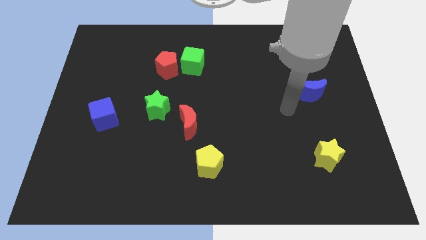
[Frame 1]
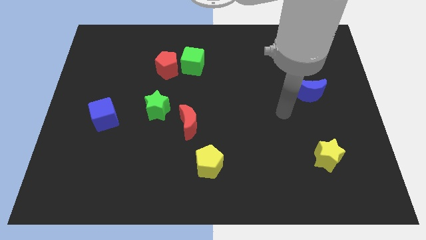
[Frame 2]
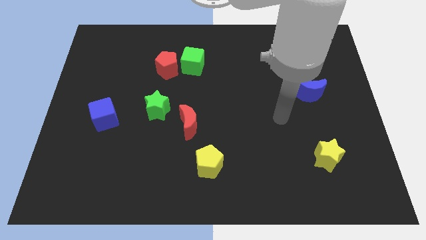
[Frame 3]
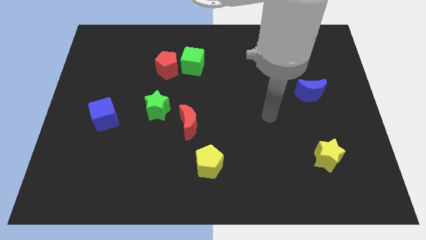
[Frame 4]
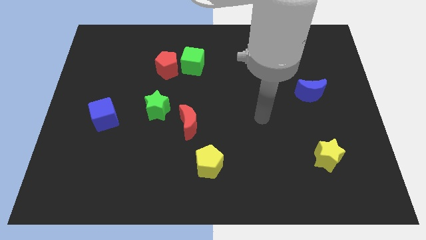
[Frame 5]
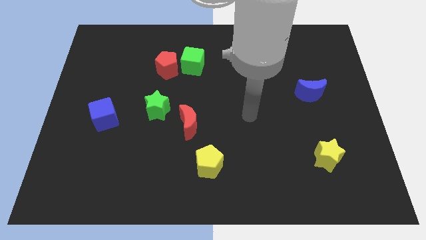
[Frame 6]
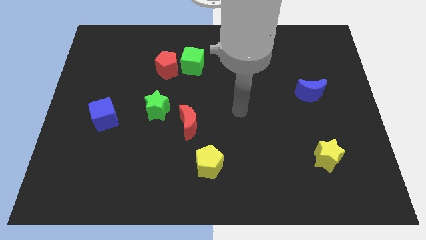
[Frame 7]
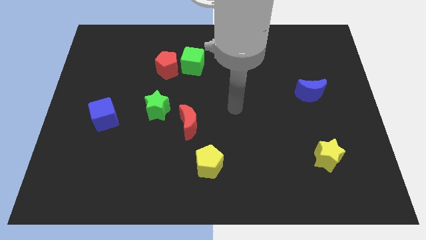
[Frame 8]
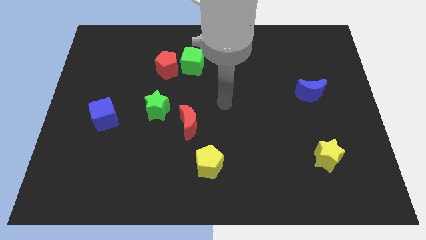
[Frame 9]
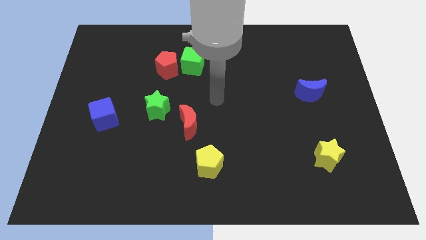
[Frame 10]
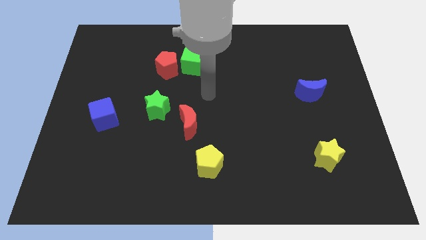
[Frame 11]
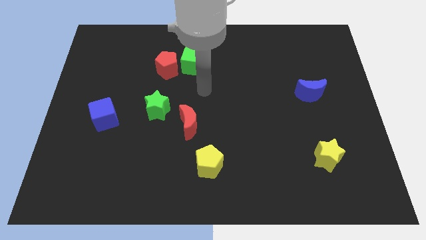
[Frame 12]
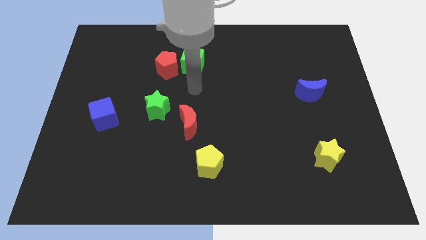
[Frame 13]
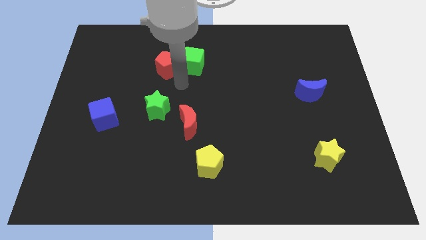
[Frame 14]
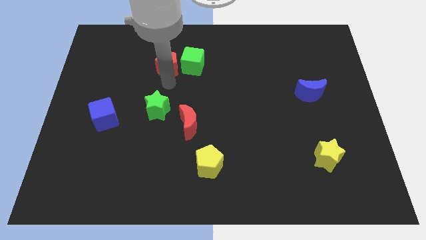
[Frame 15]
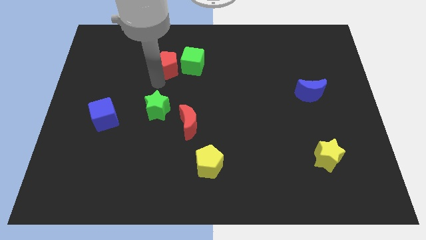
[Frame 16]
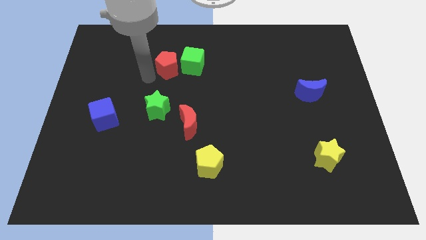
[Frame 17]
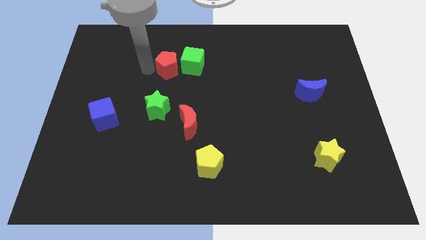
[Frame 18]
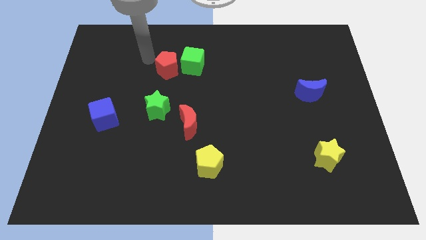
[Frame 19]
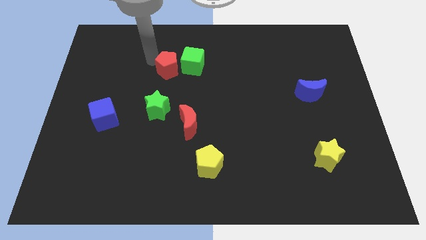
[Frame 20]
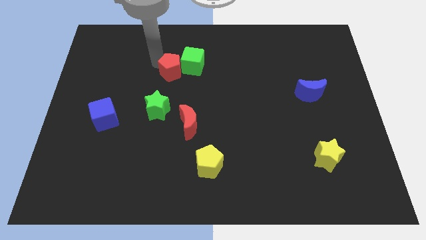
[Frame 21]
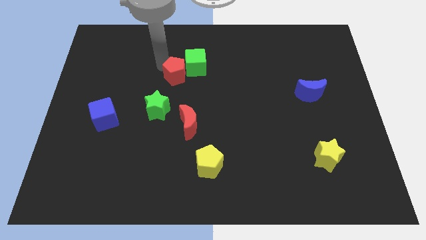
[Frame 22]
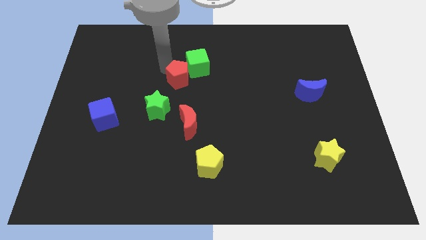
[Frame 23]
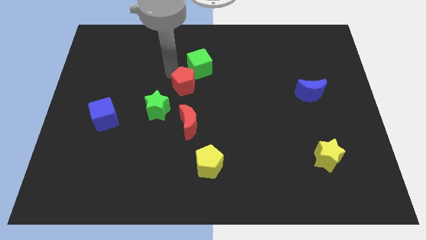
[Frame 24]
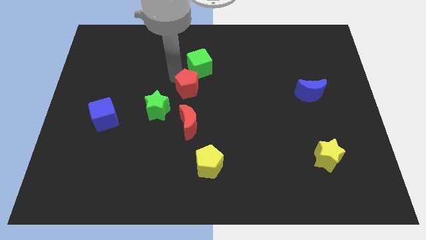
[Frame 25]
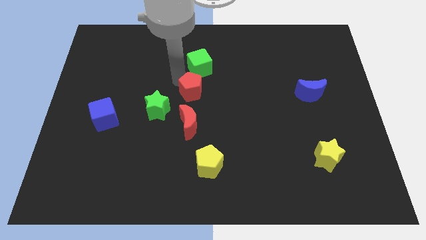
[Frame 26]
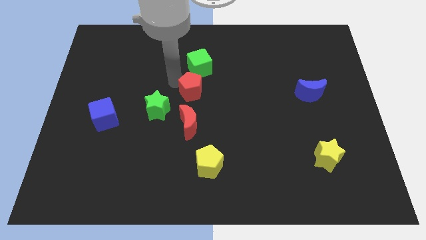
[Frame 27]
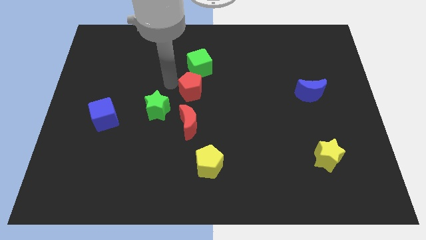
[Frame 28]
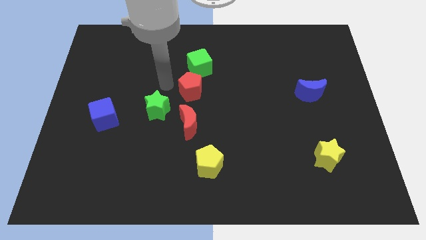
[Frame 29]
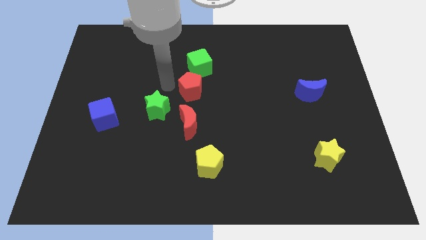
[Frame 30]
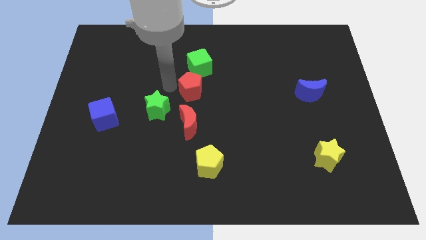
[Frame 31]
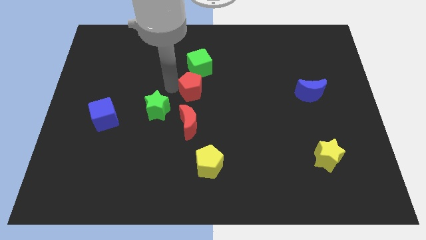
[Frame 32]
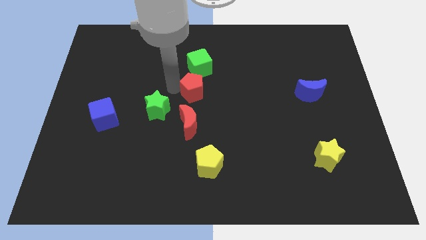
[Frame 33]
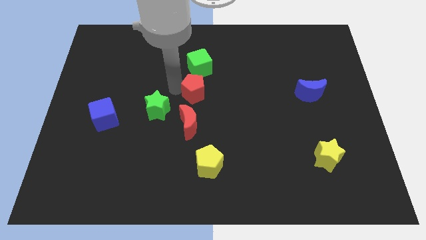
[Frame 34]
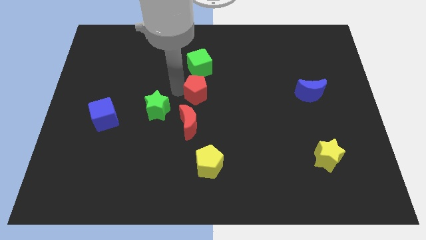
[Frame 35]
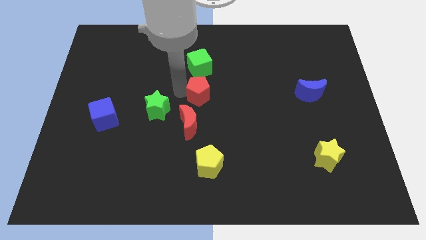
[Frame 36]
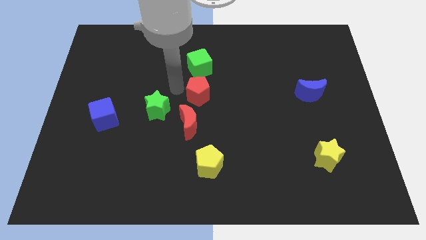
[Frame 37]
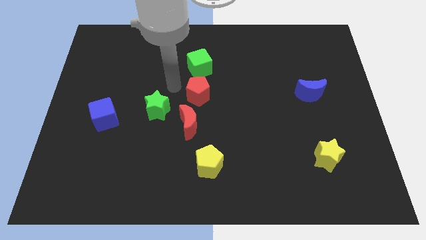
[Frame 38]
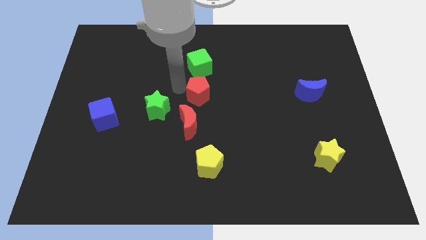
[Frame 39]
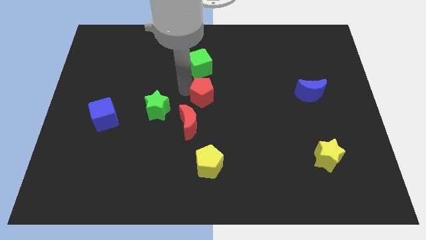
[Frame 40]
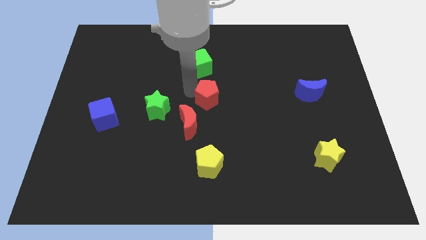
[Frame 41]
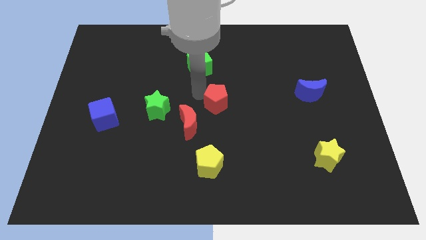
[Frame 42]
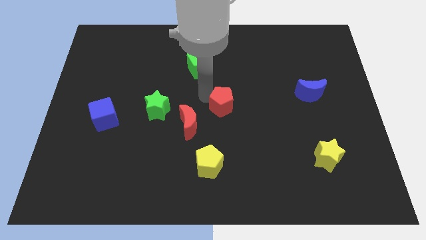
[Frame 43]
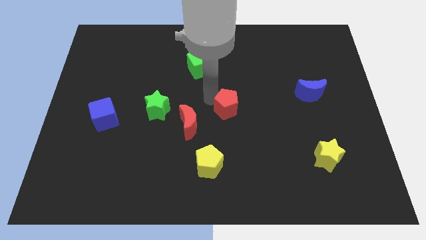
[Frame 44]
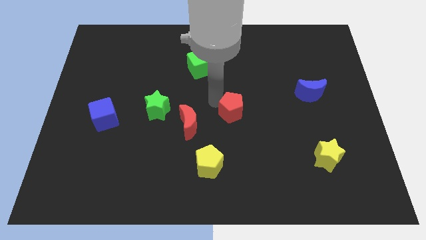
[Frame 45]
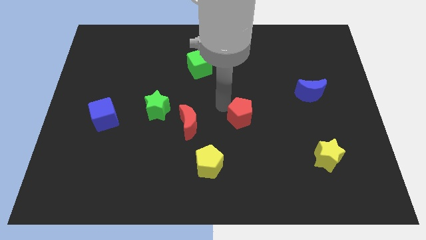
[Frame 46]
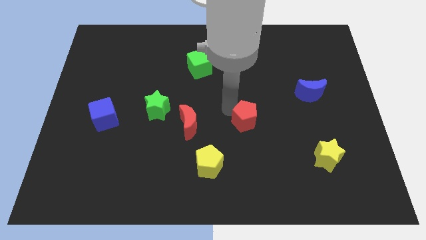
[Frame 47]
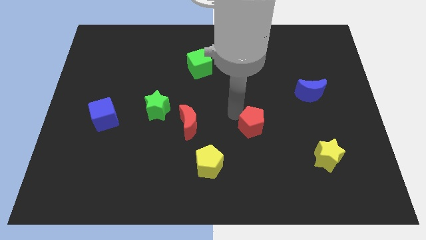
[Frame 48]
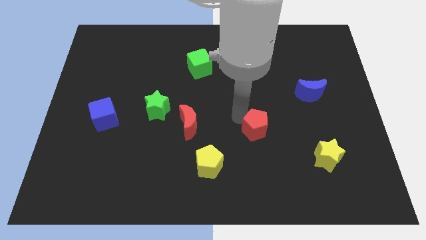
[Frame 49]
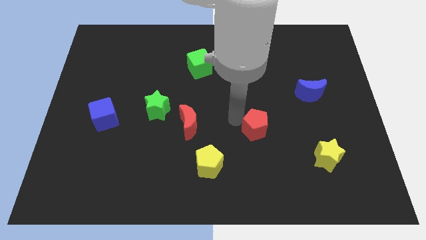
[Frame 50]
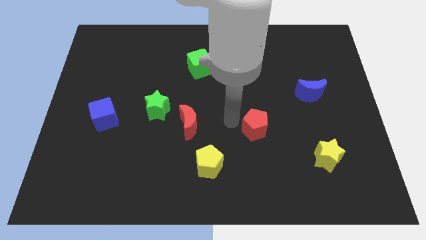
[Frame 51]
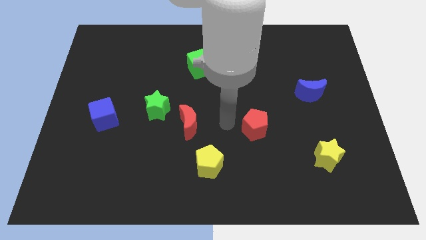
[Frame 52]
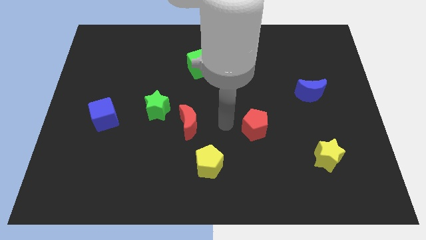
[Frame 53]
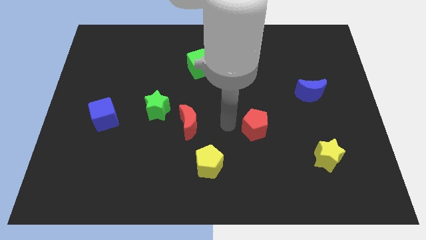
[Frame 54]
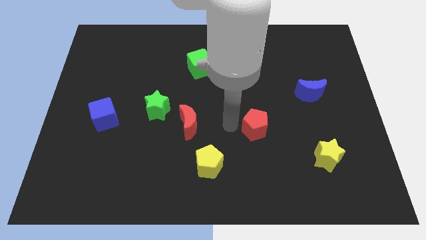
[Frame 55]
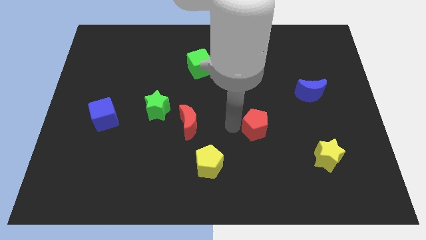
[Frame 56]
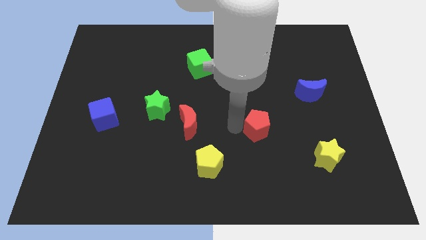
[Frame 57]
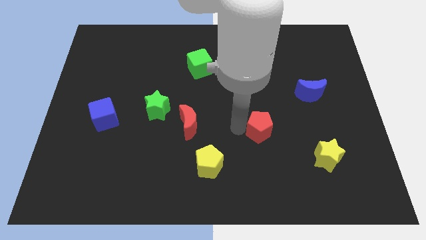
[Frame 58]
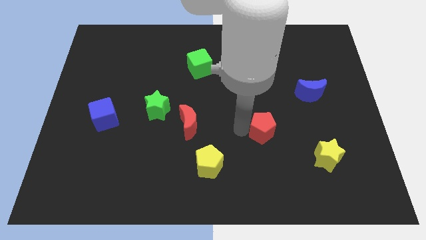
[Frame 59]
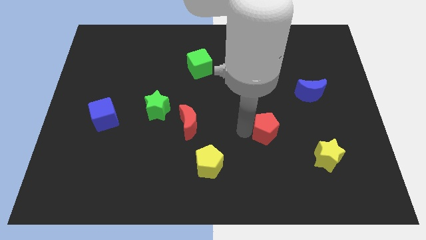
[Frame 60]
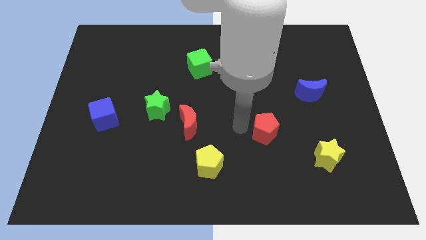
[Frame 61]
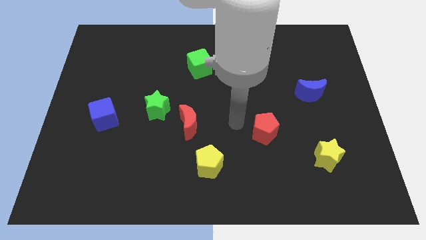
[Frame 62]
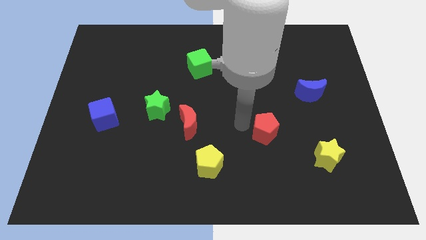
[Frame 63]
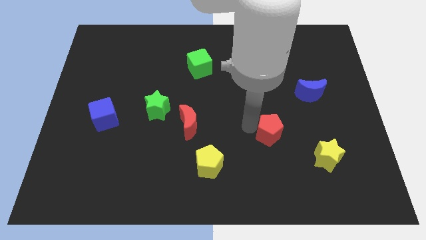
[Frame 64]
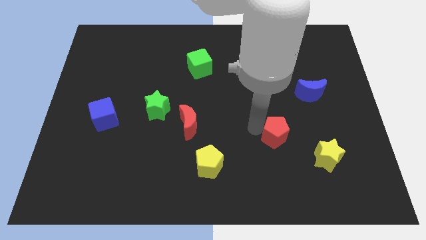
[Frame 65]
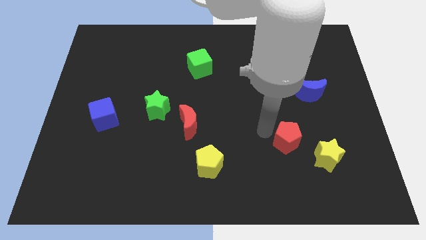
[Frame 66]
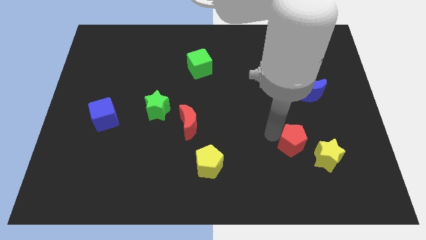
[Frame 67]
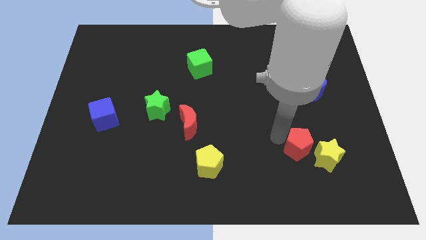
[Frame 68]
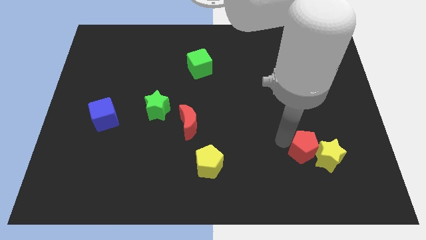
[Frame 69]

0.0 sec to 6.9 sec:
slide the red pentagon close to the yellow star

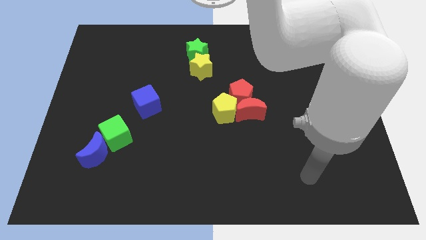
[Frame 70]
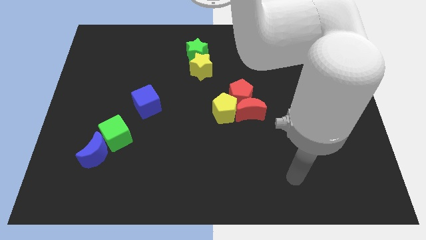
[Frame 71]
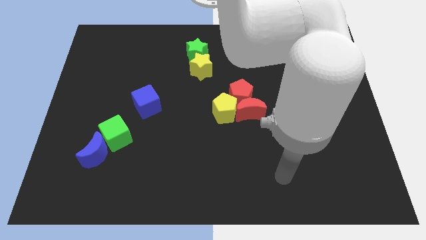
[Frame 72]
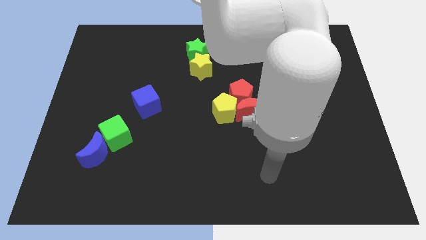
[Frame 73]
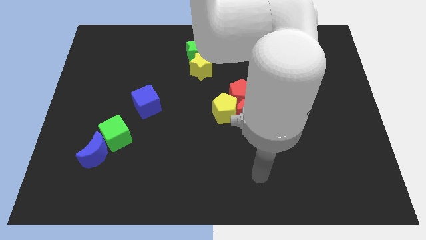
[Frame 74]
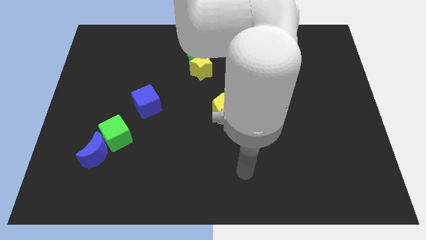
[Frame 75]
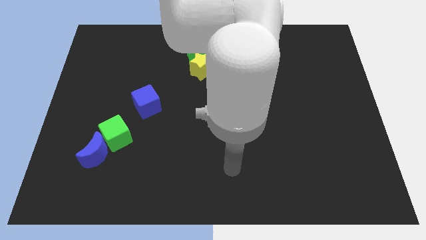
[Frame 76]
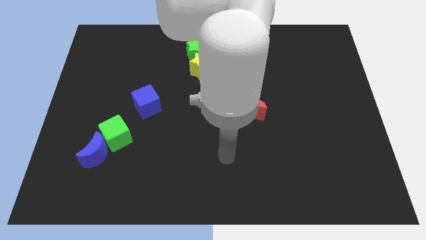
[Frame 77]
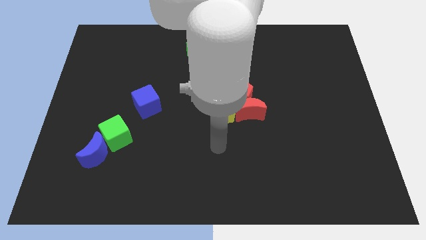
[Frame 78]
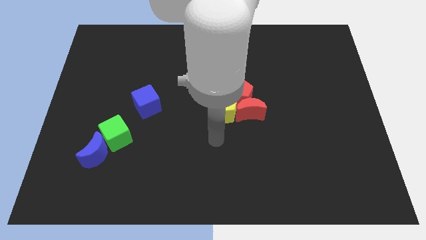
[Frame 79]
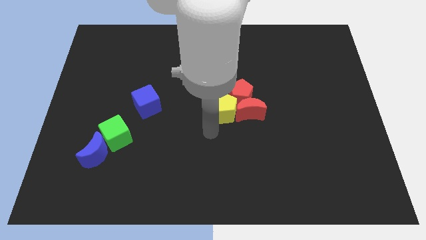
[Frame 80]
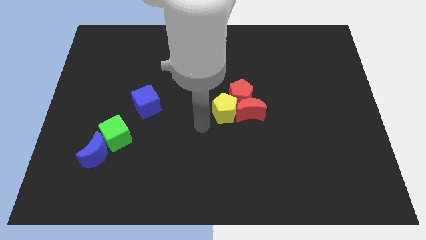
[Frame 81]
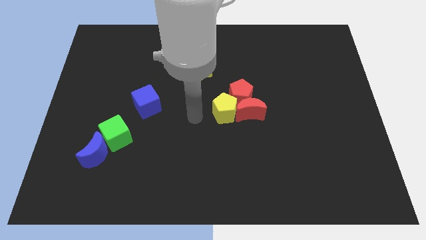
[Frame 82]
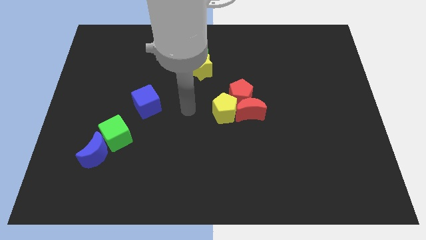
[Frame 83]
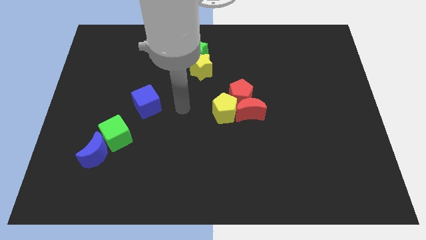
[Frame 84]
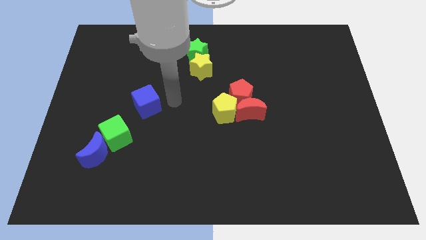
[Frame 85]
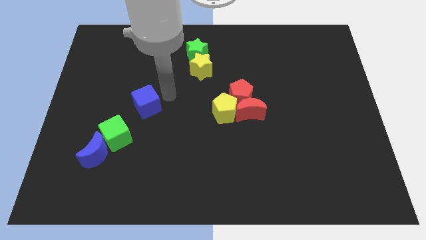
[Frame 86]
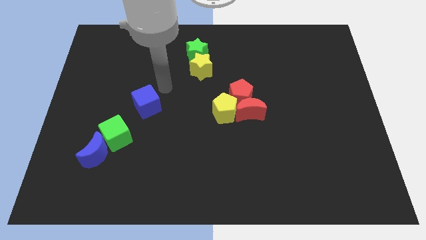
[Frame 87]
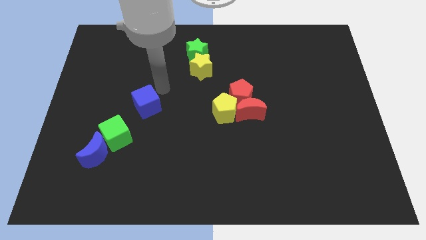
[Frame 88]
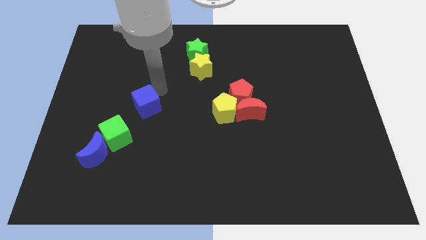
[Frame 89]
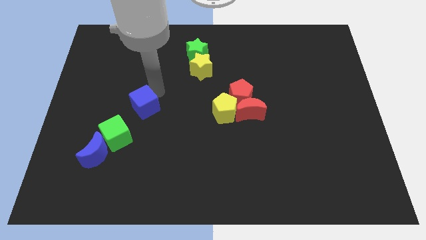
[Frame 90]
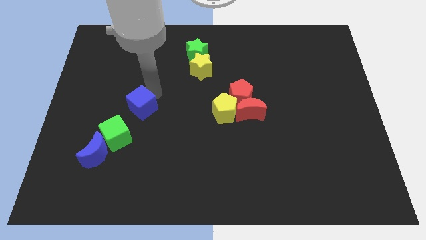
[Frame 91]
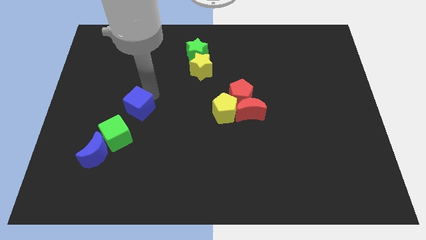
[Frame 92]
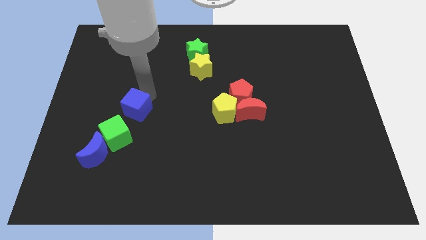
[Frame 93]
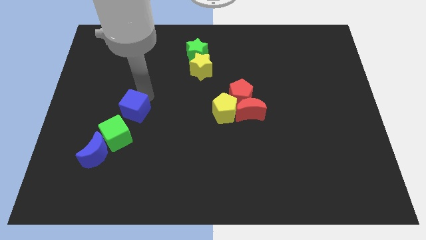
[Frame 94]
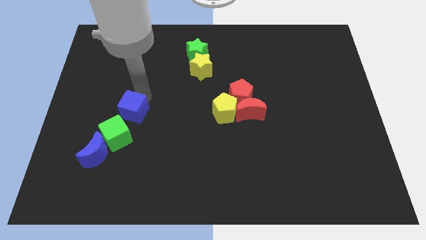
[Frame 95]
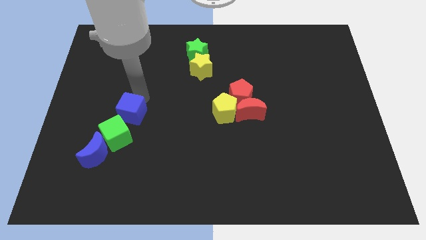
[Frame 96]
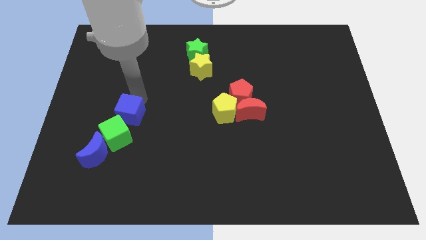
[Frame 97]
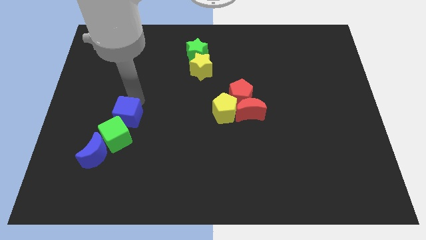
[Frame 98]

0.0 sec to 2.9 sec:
put the blue cube next to the green cube
